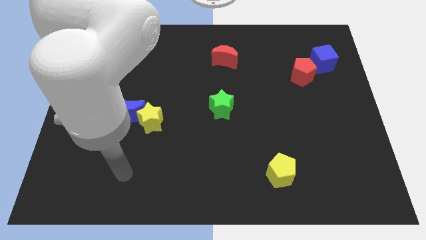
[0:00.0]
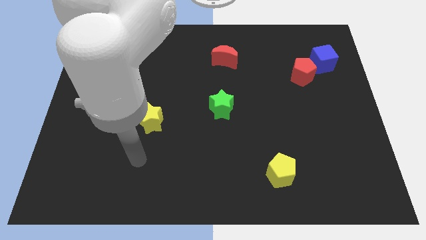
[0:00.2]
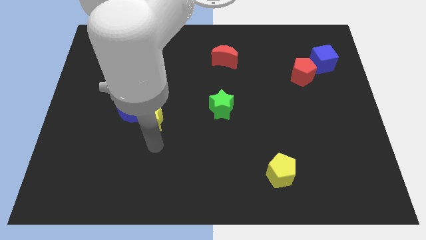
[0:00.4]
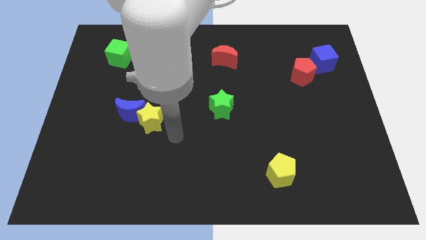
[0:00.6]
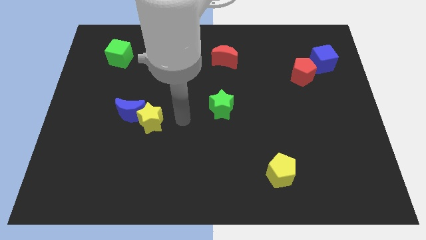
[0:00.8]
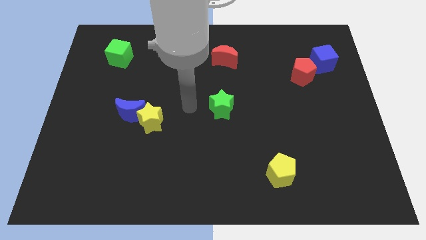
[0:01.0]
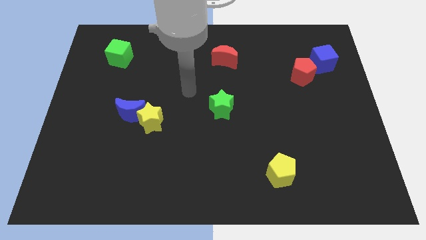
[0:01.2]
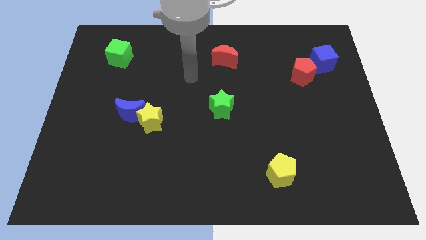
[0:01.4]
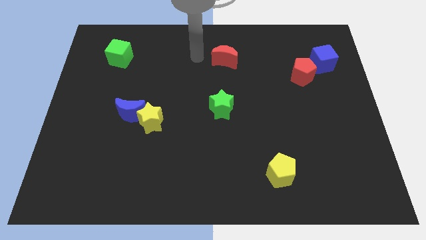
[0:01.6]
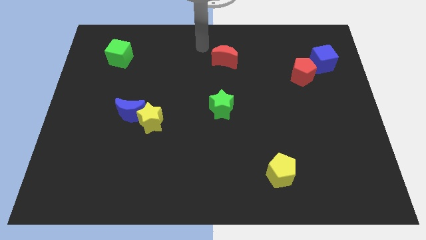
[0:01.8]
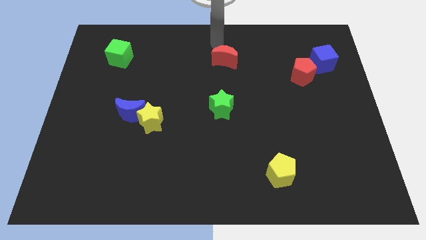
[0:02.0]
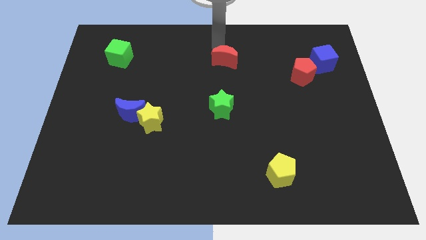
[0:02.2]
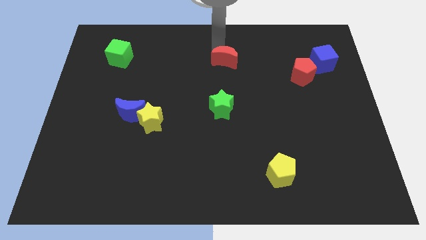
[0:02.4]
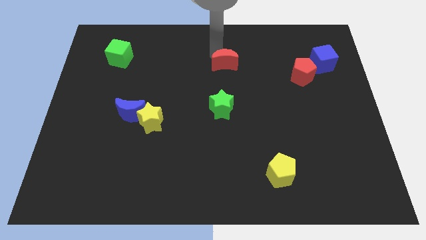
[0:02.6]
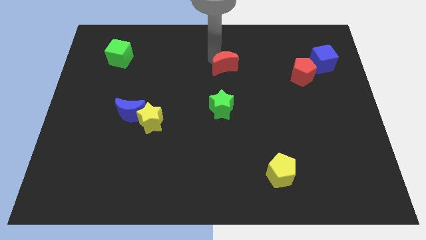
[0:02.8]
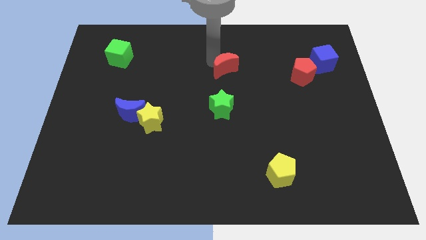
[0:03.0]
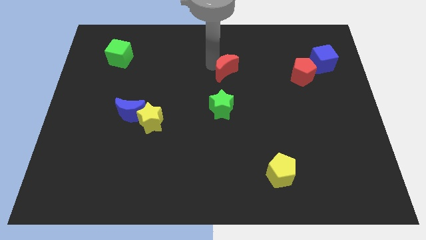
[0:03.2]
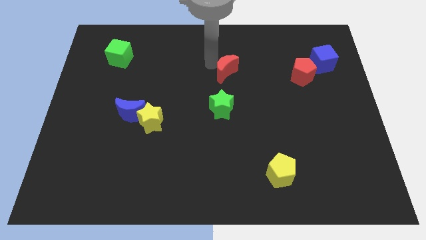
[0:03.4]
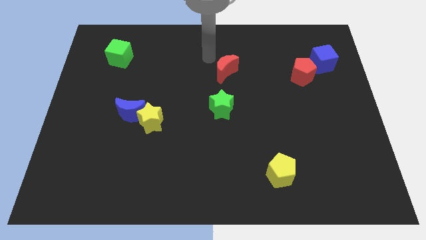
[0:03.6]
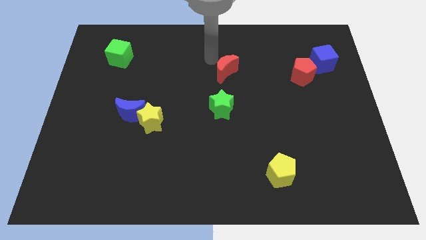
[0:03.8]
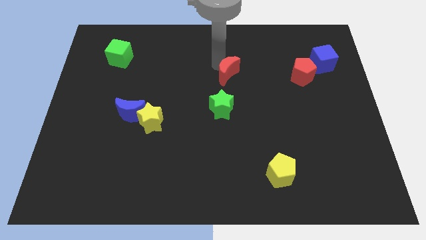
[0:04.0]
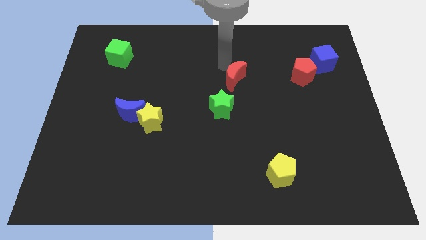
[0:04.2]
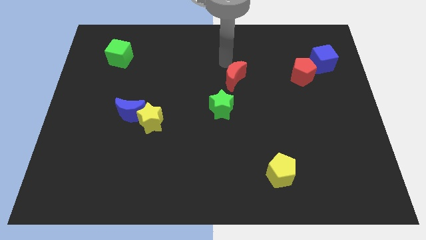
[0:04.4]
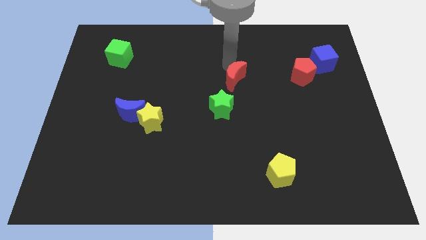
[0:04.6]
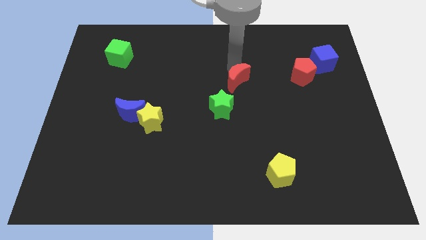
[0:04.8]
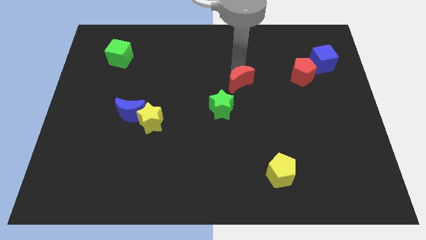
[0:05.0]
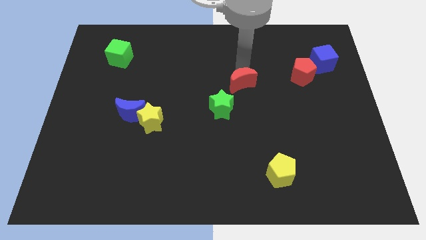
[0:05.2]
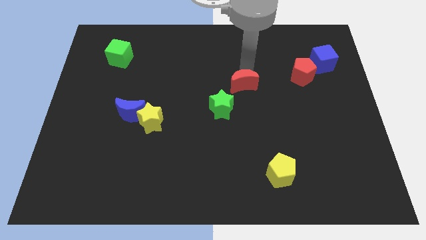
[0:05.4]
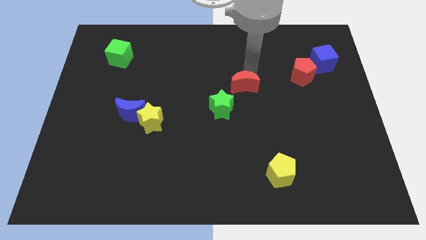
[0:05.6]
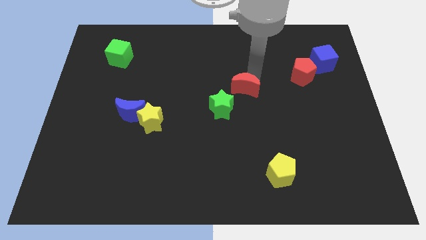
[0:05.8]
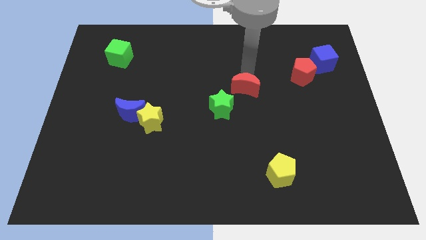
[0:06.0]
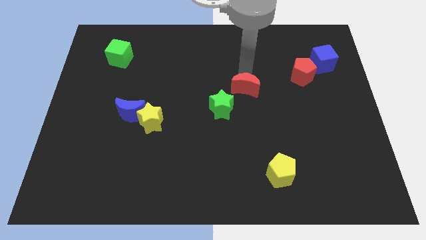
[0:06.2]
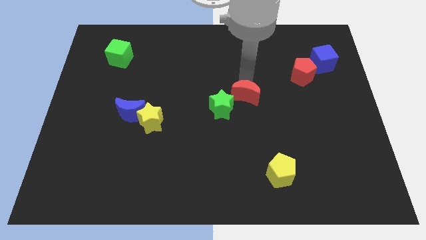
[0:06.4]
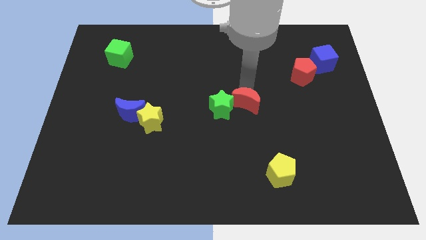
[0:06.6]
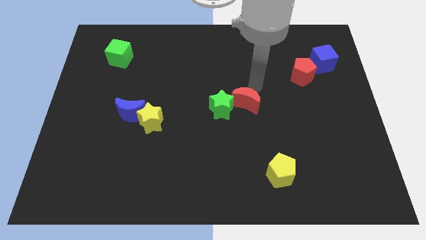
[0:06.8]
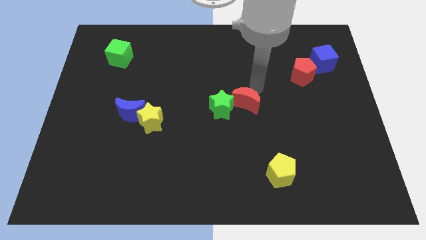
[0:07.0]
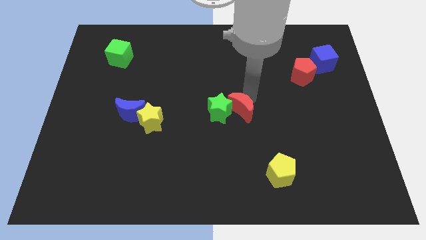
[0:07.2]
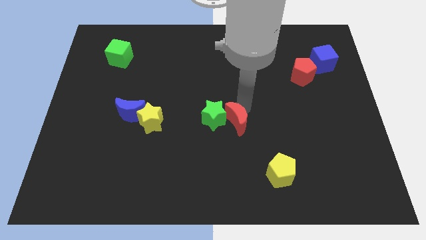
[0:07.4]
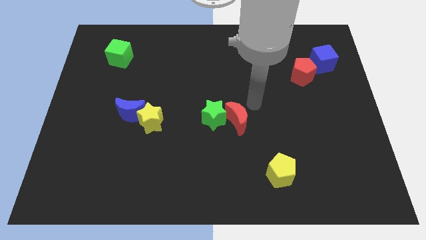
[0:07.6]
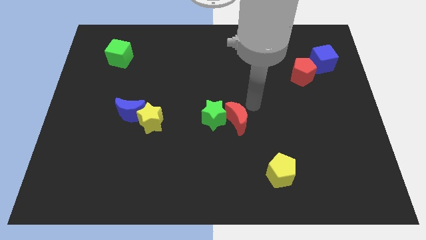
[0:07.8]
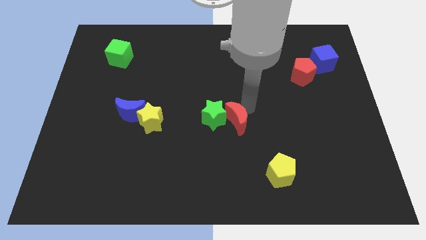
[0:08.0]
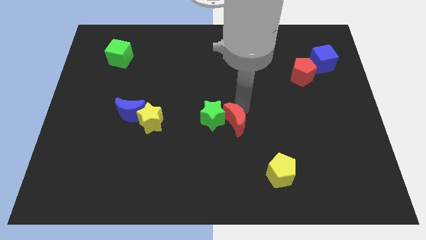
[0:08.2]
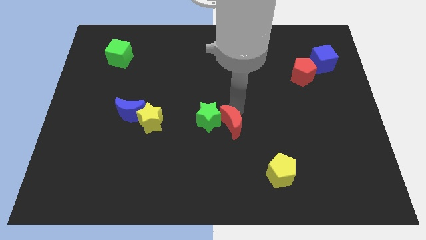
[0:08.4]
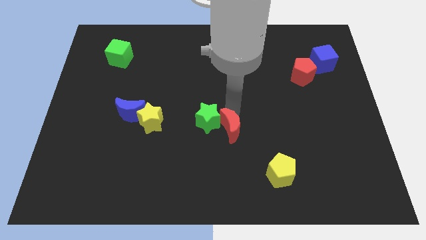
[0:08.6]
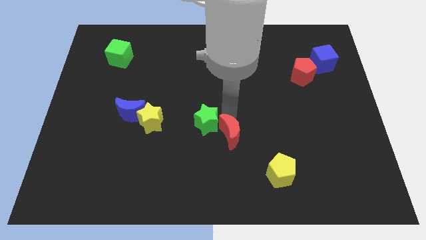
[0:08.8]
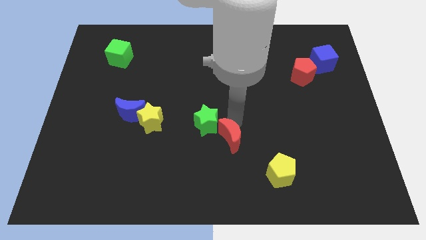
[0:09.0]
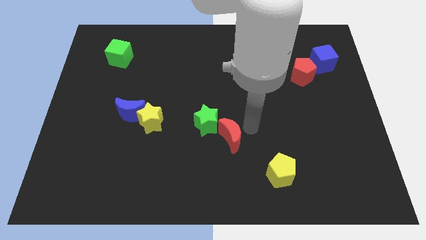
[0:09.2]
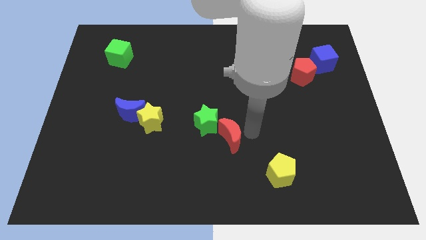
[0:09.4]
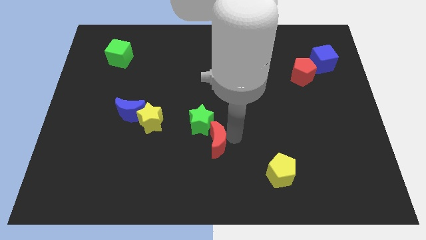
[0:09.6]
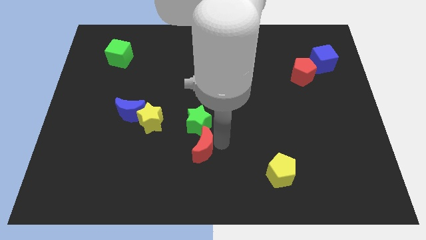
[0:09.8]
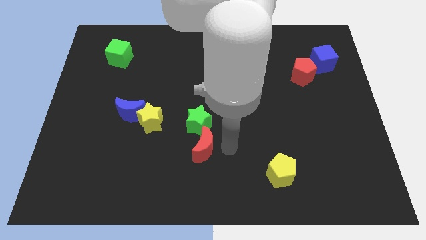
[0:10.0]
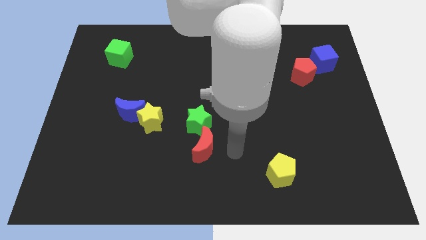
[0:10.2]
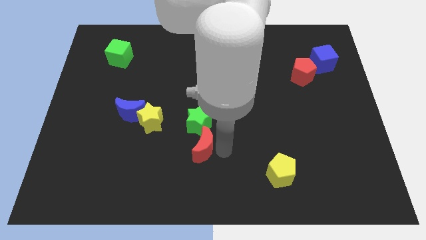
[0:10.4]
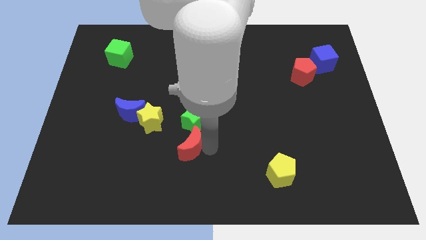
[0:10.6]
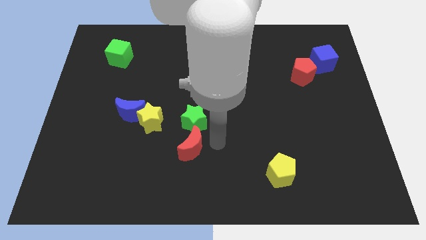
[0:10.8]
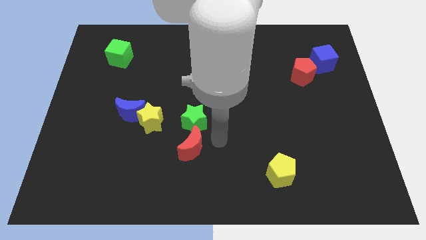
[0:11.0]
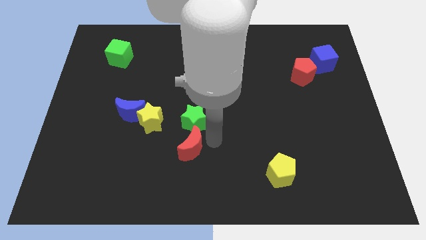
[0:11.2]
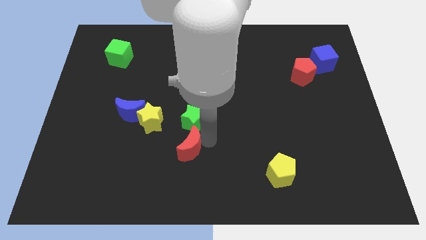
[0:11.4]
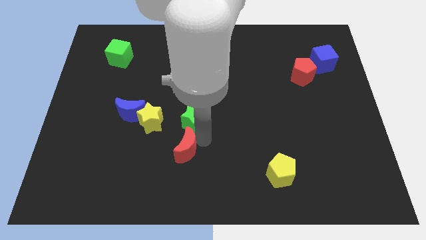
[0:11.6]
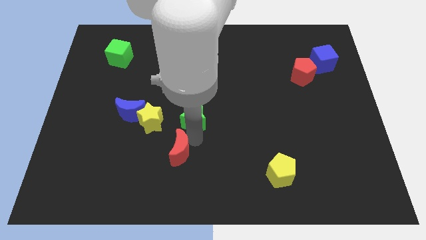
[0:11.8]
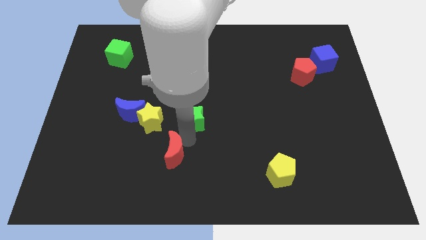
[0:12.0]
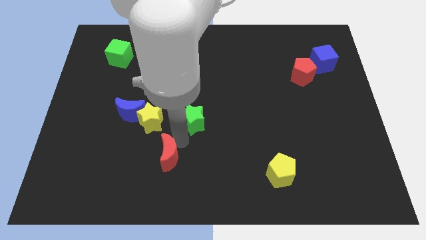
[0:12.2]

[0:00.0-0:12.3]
slide the red moon below the yellow star

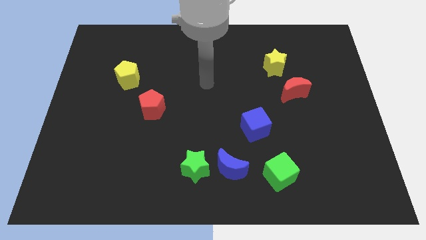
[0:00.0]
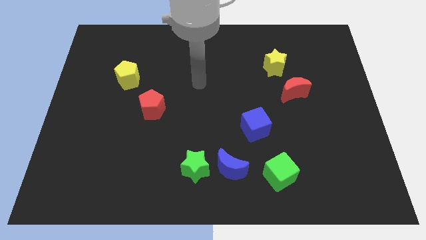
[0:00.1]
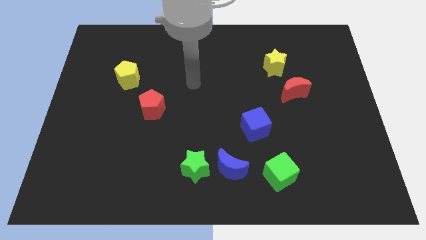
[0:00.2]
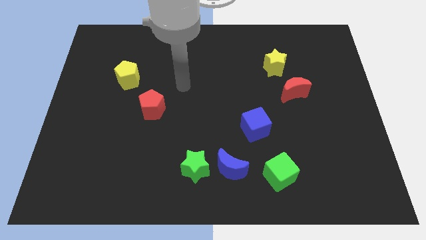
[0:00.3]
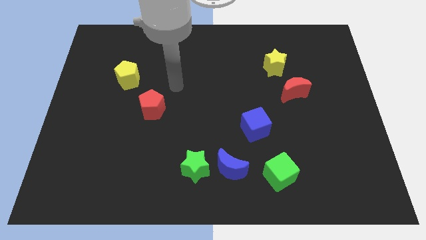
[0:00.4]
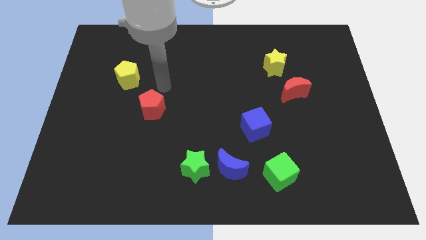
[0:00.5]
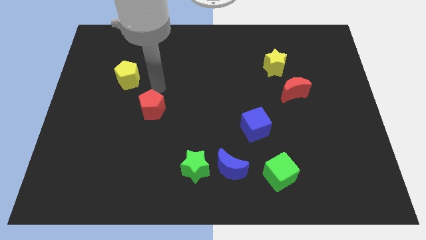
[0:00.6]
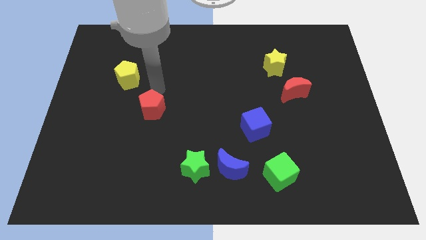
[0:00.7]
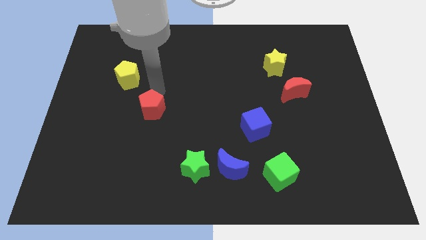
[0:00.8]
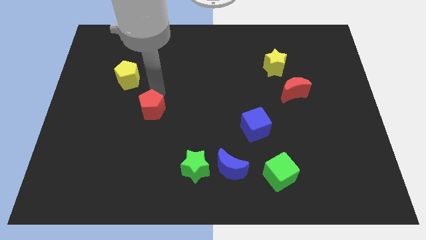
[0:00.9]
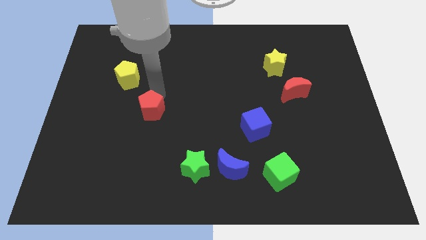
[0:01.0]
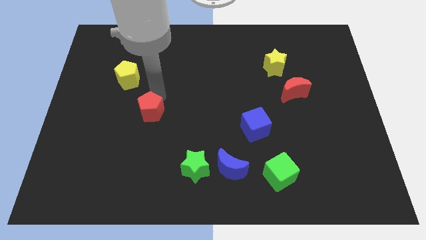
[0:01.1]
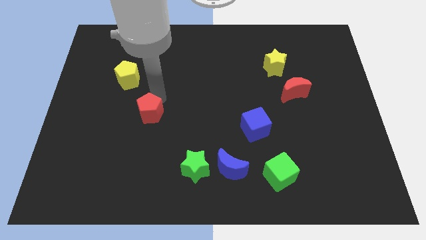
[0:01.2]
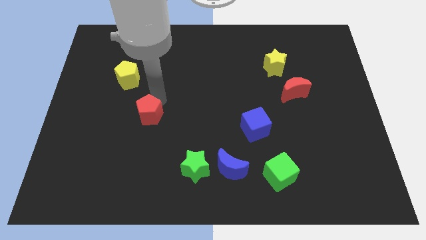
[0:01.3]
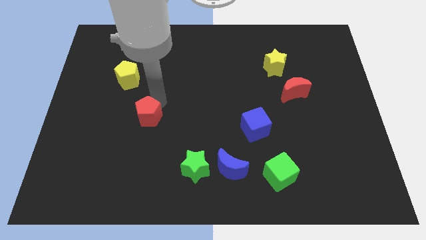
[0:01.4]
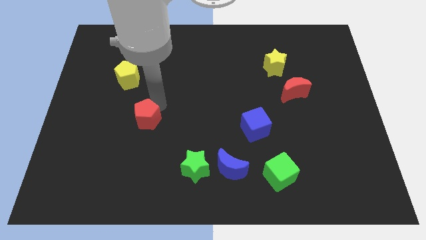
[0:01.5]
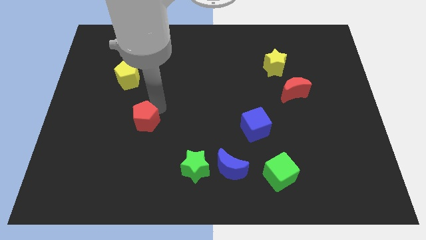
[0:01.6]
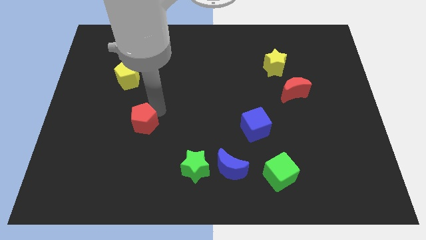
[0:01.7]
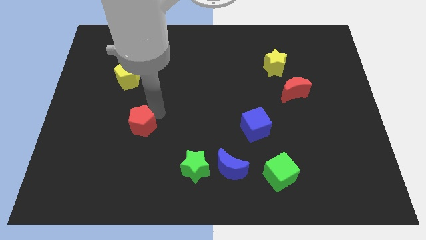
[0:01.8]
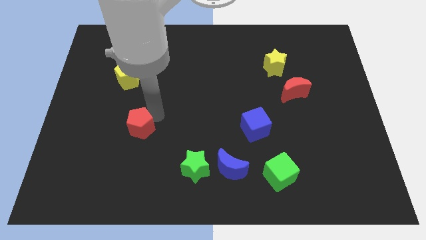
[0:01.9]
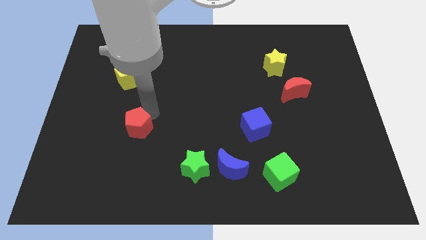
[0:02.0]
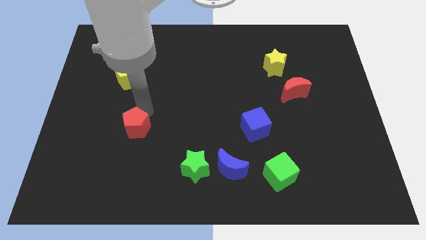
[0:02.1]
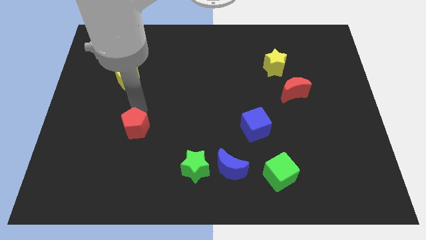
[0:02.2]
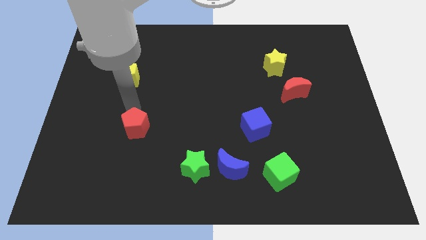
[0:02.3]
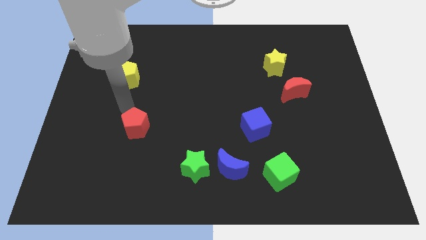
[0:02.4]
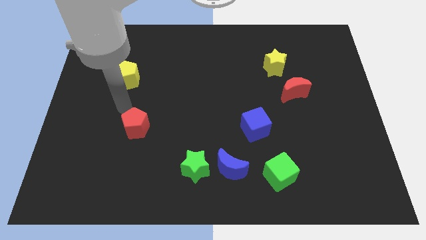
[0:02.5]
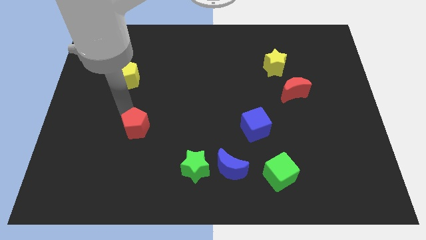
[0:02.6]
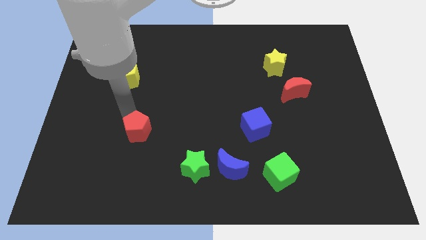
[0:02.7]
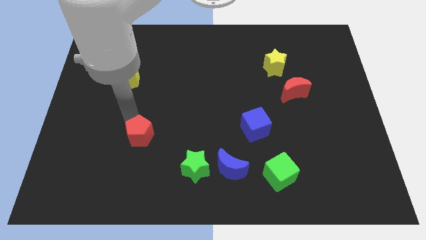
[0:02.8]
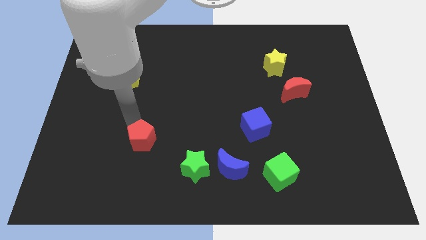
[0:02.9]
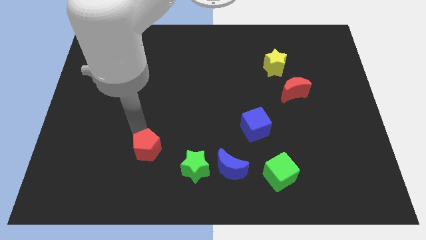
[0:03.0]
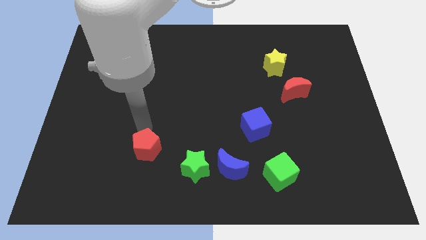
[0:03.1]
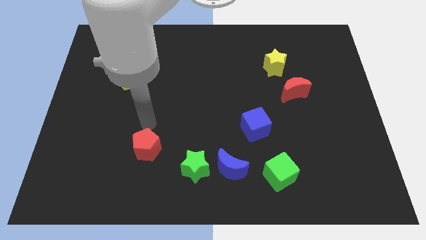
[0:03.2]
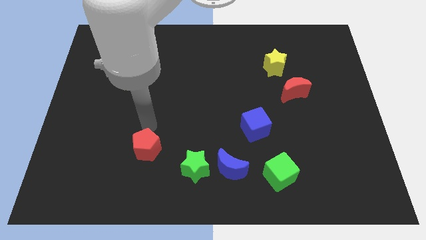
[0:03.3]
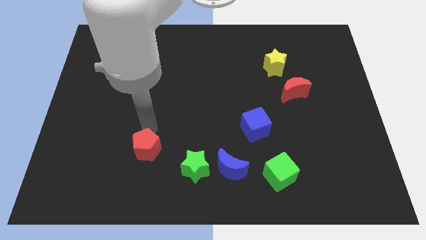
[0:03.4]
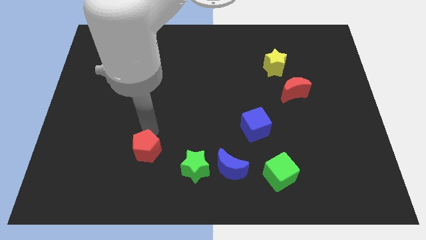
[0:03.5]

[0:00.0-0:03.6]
move the red pentagon left of the green star
